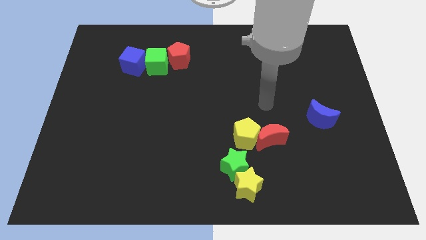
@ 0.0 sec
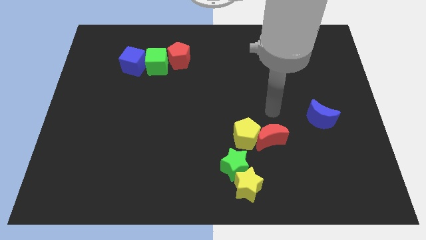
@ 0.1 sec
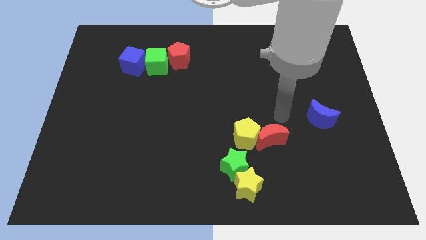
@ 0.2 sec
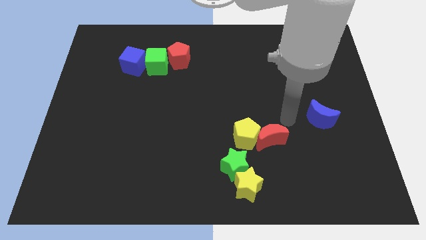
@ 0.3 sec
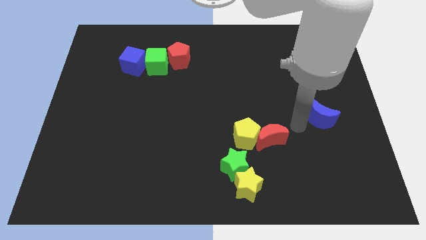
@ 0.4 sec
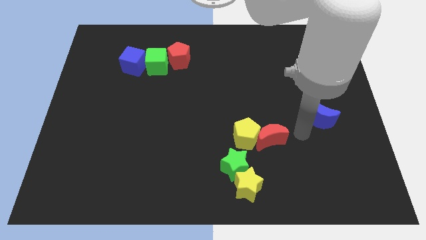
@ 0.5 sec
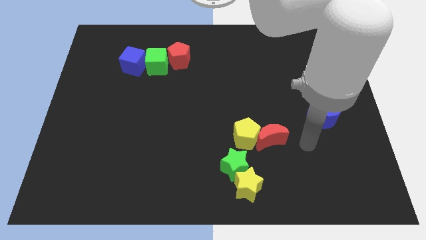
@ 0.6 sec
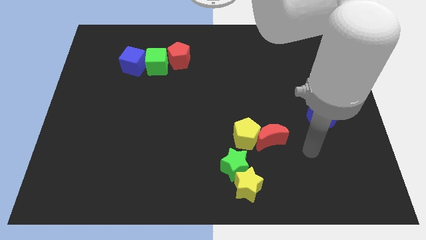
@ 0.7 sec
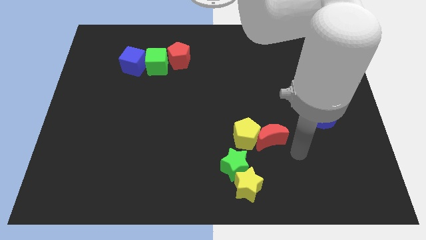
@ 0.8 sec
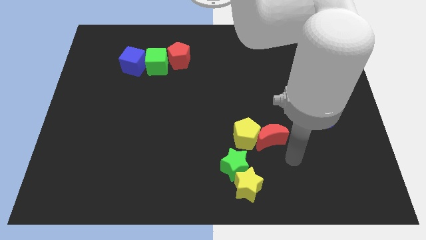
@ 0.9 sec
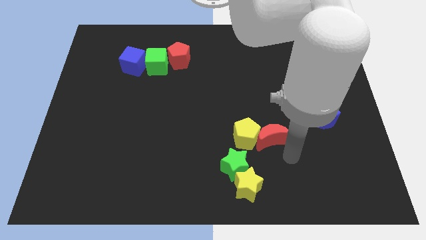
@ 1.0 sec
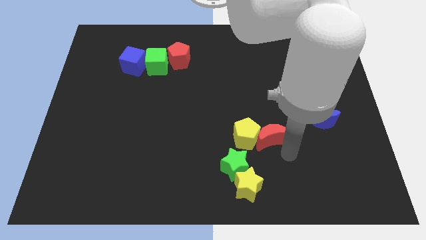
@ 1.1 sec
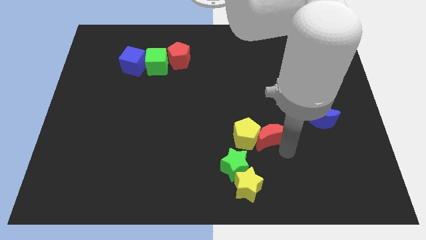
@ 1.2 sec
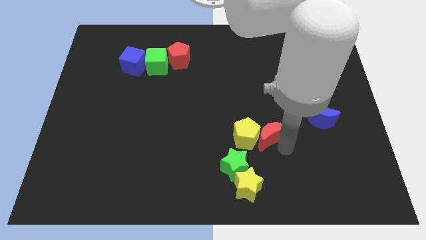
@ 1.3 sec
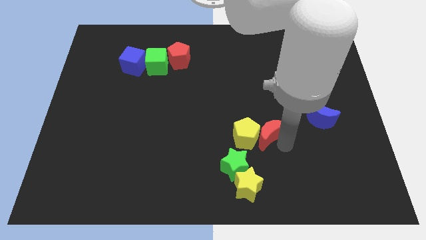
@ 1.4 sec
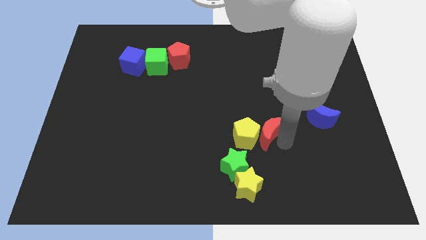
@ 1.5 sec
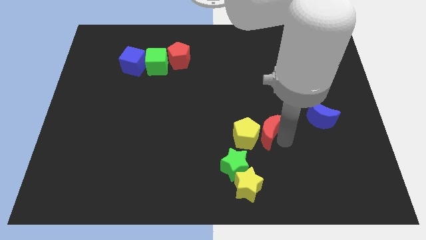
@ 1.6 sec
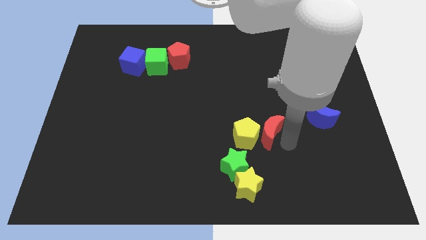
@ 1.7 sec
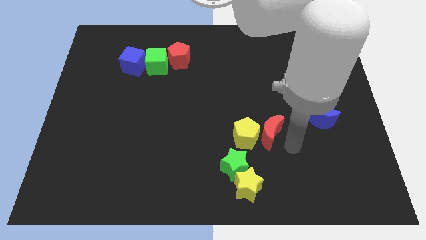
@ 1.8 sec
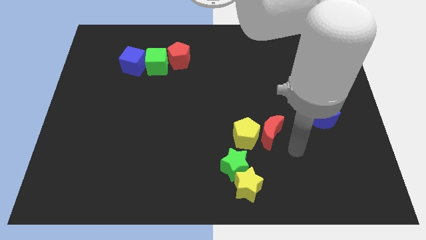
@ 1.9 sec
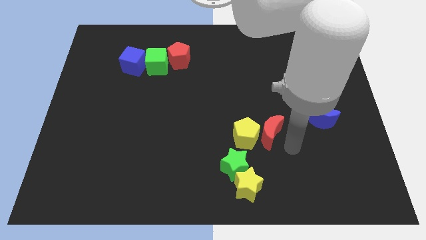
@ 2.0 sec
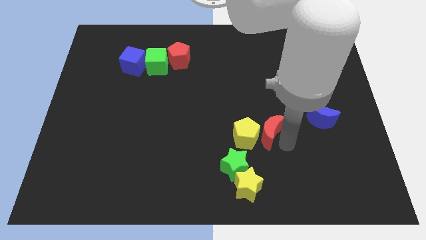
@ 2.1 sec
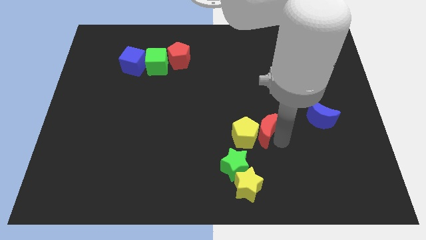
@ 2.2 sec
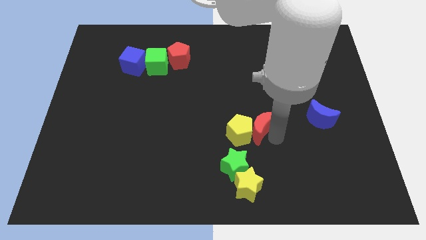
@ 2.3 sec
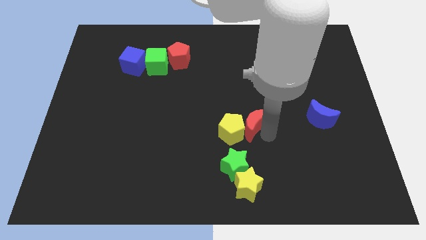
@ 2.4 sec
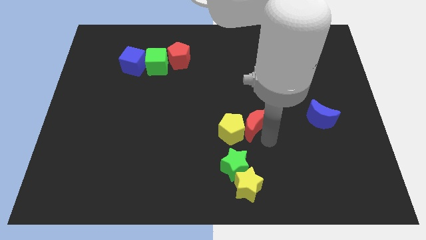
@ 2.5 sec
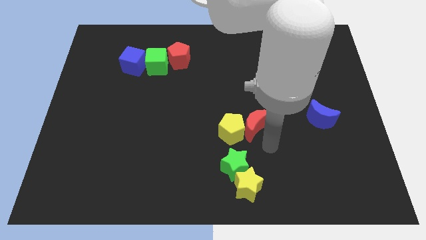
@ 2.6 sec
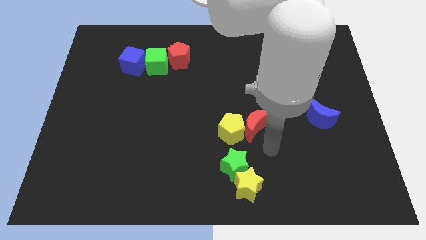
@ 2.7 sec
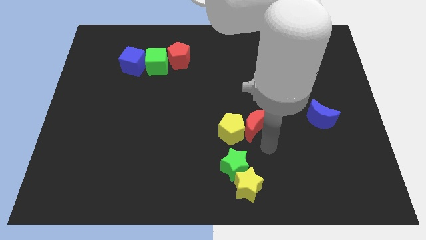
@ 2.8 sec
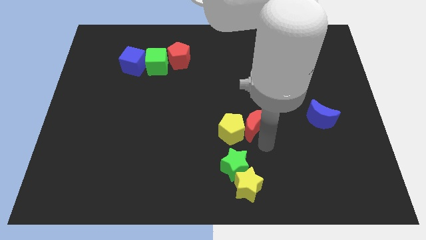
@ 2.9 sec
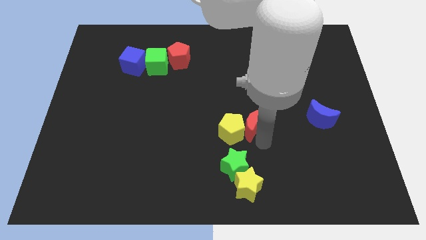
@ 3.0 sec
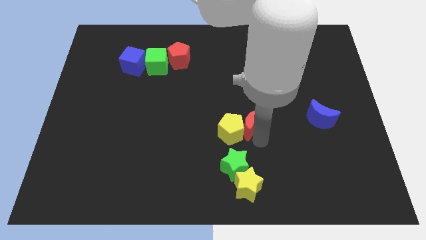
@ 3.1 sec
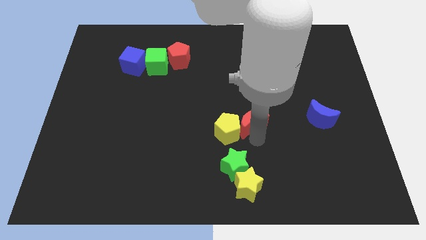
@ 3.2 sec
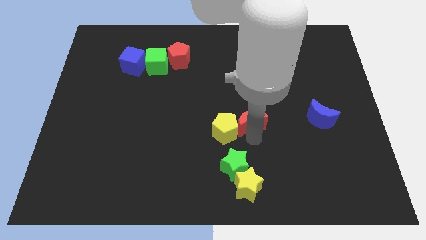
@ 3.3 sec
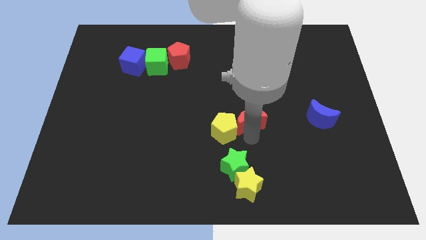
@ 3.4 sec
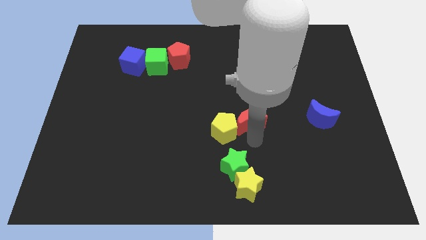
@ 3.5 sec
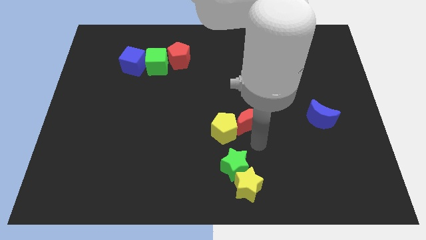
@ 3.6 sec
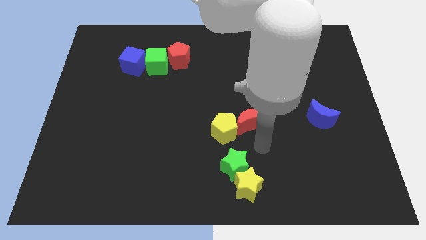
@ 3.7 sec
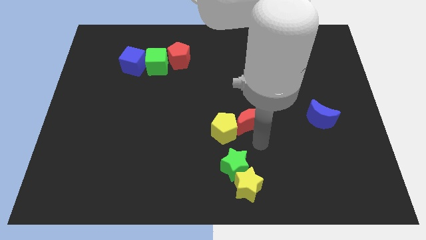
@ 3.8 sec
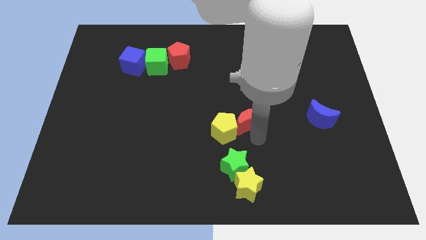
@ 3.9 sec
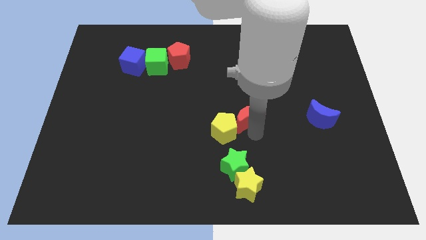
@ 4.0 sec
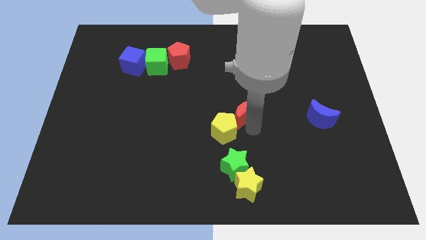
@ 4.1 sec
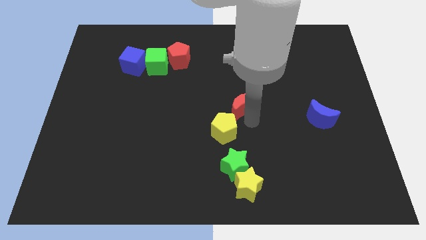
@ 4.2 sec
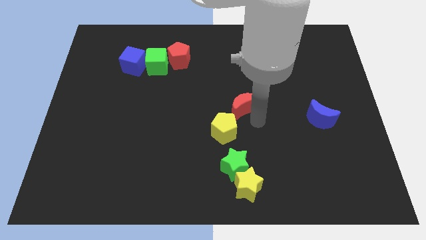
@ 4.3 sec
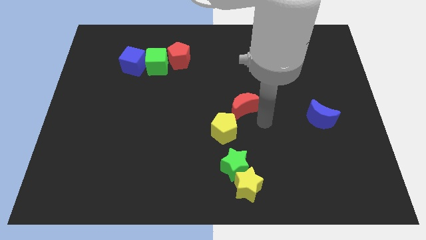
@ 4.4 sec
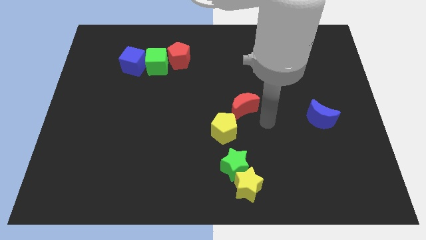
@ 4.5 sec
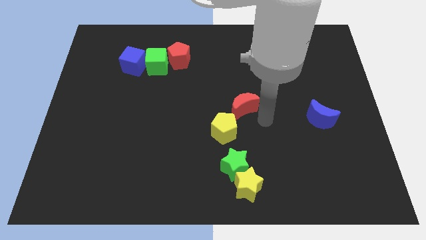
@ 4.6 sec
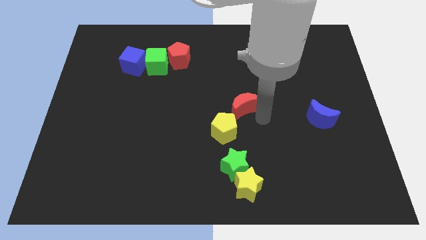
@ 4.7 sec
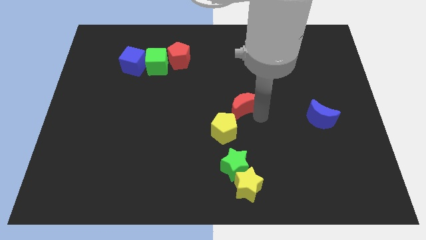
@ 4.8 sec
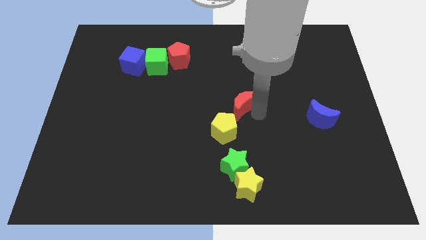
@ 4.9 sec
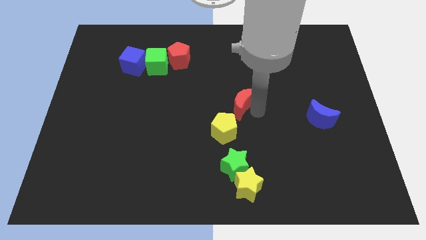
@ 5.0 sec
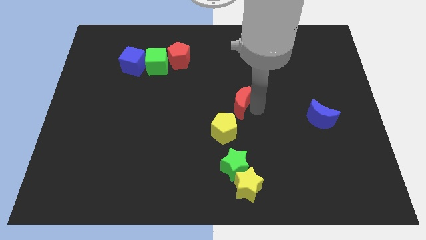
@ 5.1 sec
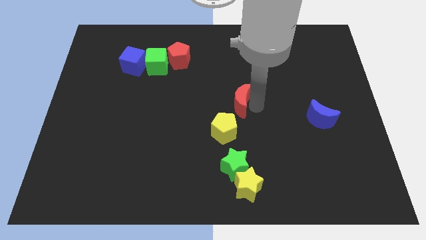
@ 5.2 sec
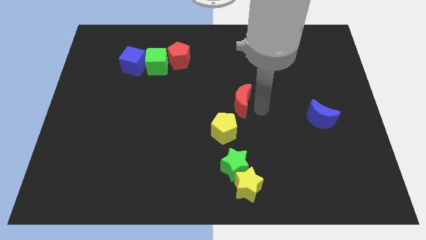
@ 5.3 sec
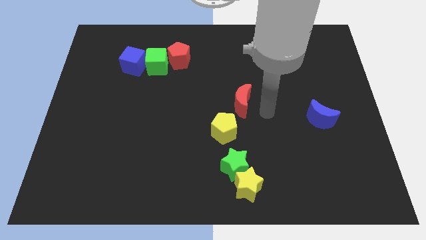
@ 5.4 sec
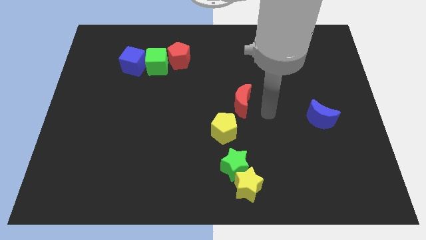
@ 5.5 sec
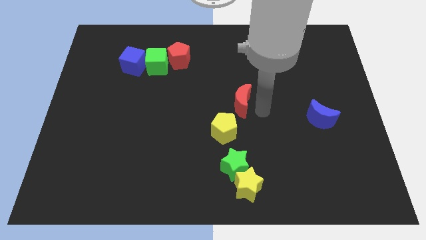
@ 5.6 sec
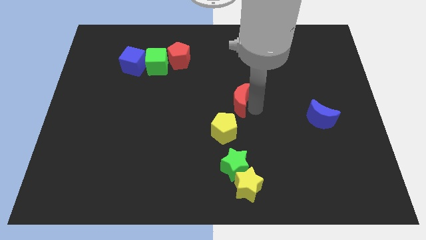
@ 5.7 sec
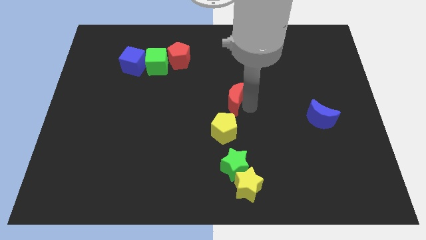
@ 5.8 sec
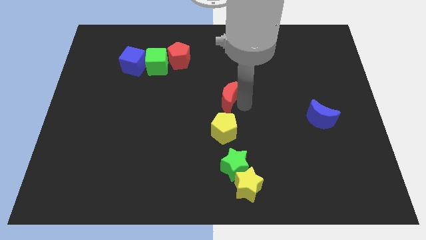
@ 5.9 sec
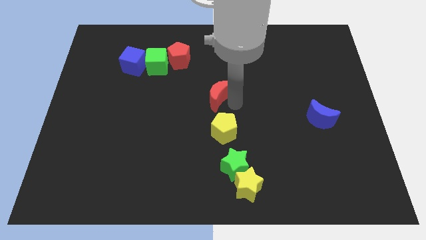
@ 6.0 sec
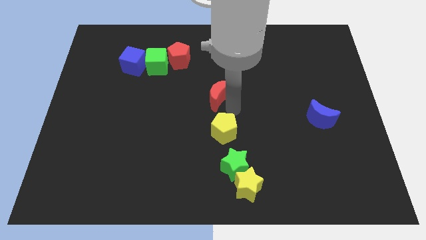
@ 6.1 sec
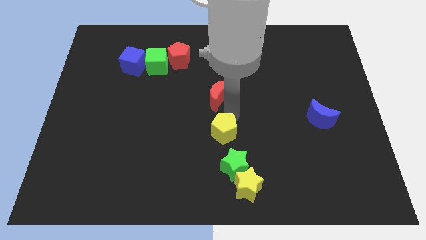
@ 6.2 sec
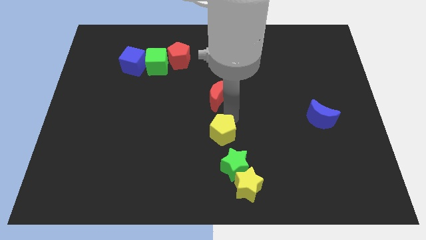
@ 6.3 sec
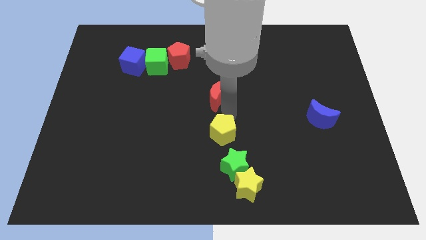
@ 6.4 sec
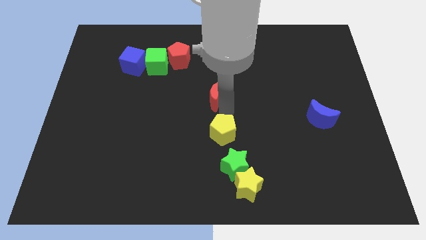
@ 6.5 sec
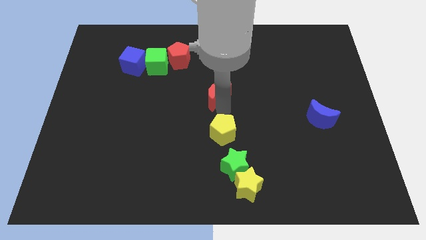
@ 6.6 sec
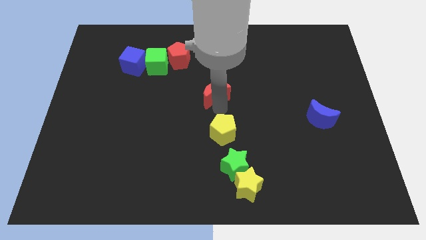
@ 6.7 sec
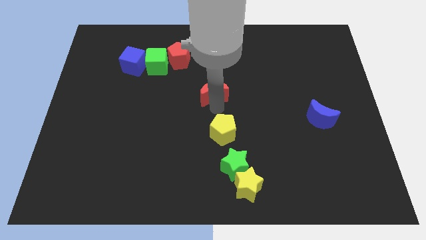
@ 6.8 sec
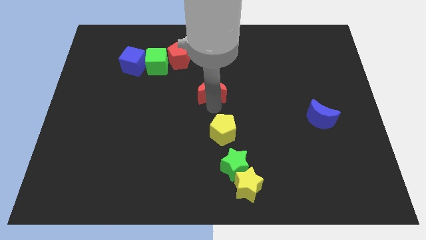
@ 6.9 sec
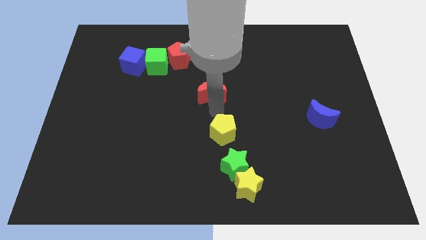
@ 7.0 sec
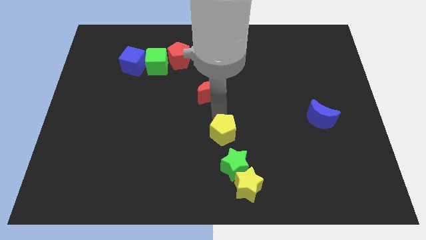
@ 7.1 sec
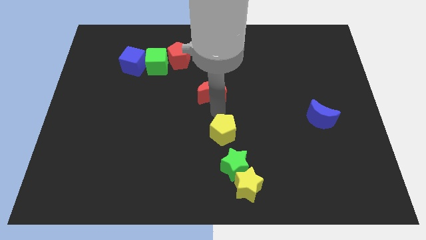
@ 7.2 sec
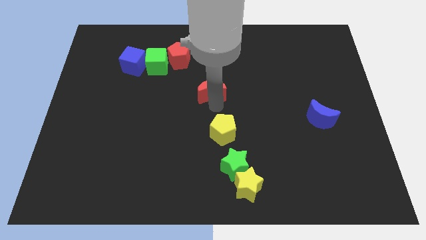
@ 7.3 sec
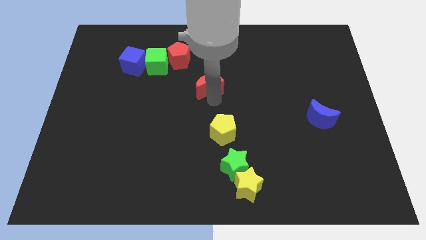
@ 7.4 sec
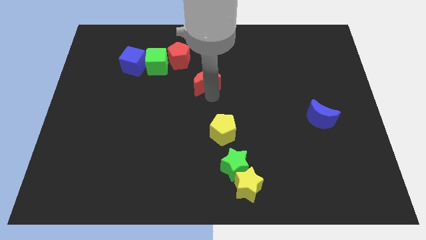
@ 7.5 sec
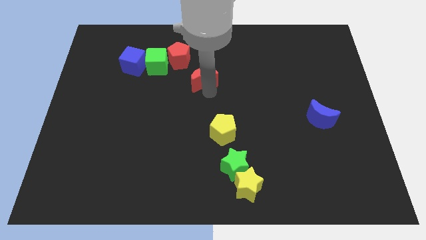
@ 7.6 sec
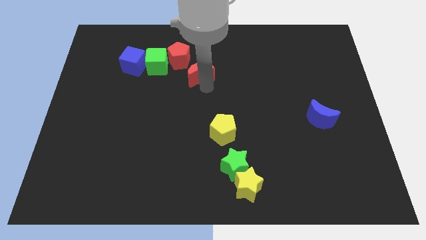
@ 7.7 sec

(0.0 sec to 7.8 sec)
put the red moon to the right side of the green cube
